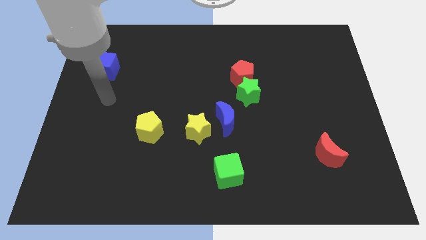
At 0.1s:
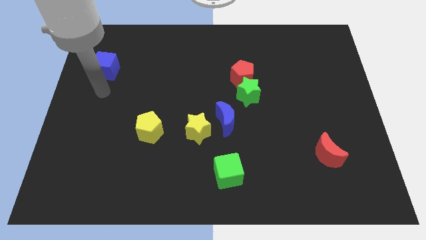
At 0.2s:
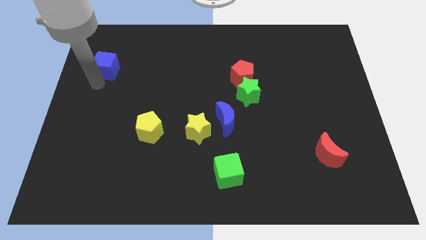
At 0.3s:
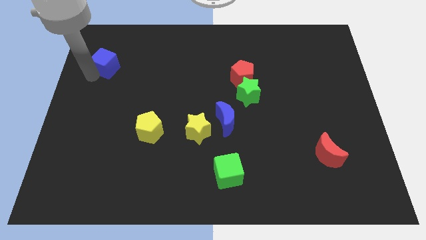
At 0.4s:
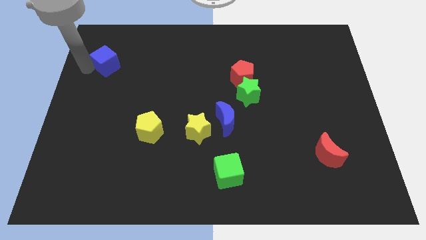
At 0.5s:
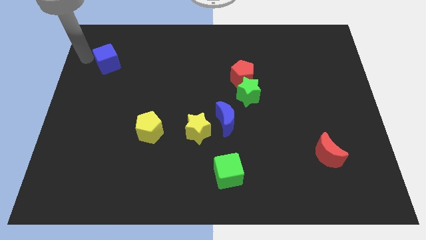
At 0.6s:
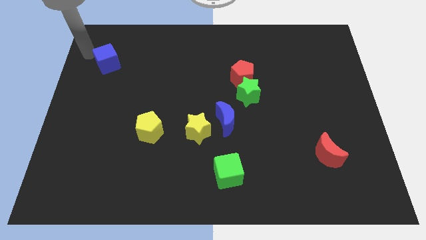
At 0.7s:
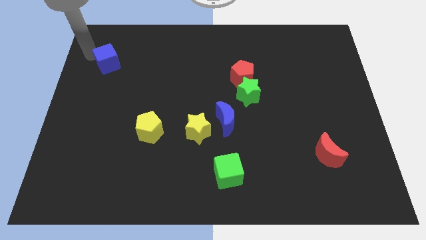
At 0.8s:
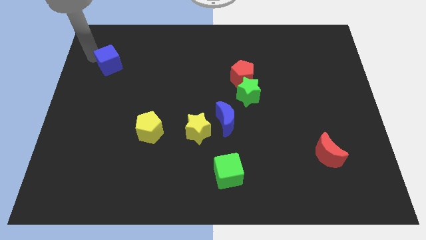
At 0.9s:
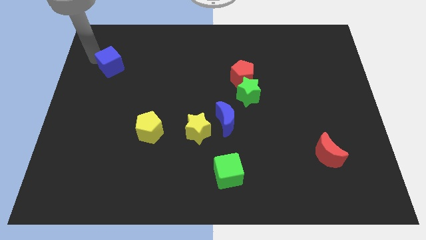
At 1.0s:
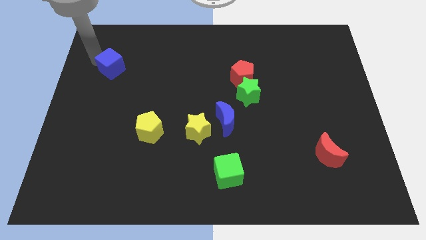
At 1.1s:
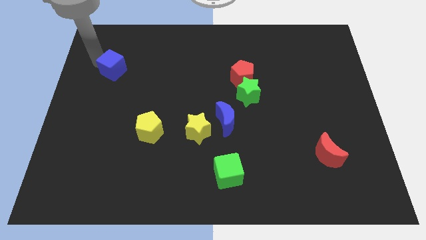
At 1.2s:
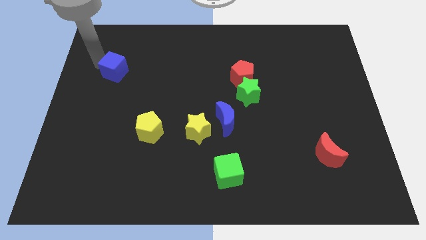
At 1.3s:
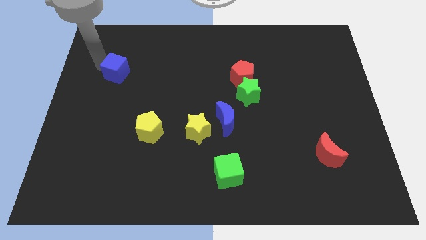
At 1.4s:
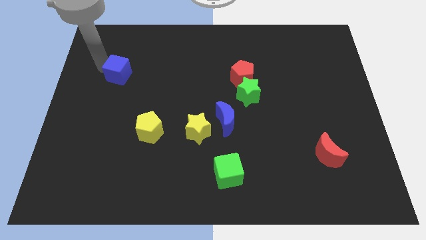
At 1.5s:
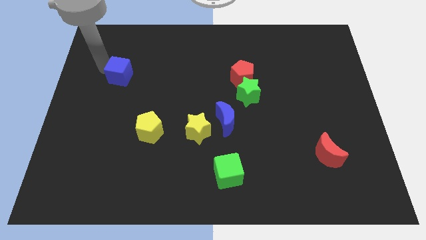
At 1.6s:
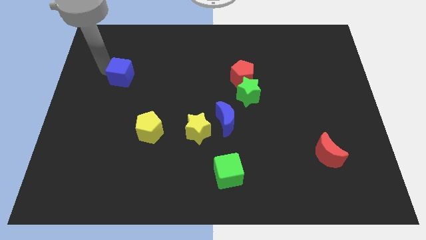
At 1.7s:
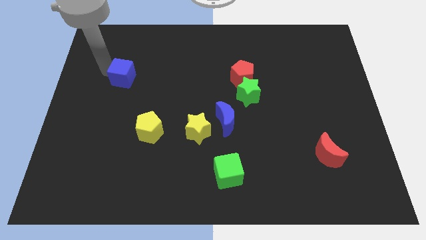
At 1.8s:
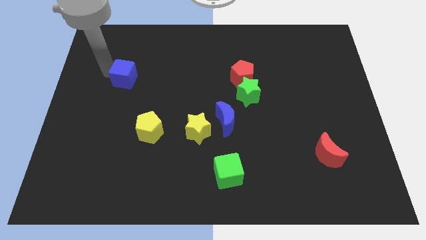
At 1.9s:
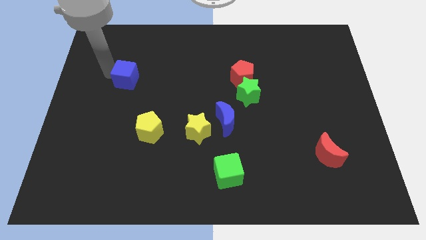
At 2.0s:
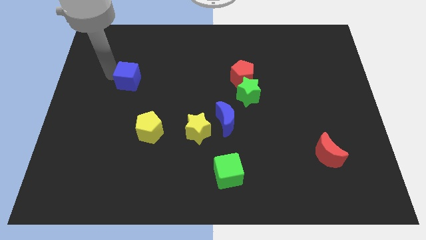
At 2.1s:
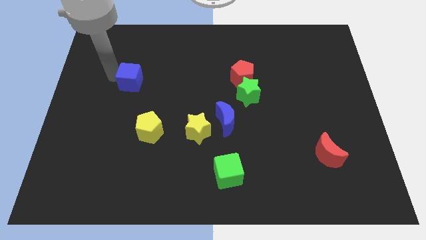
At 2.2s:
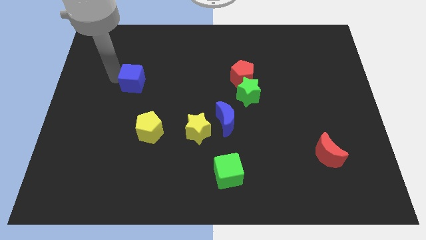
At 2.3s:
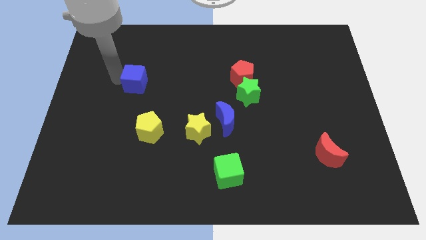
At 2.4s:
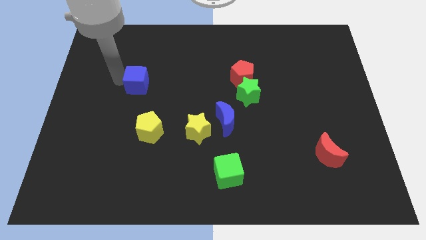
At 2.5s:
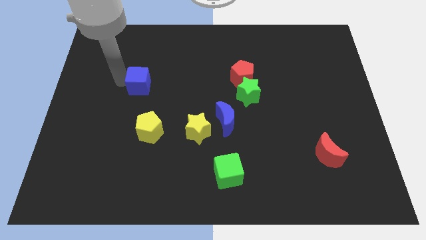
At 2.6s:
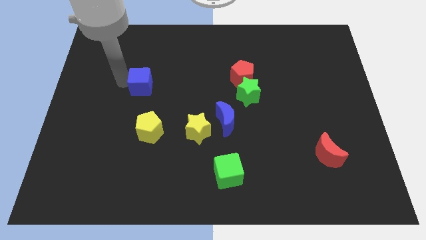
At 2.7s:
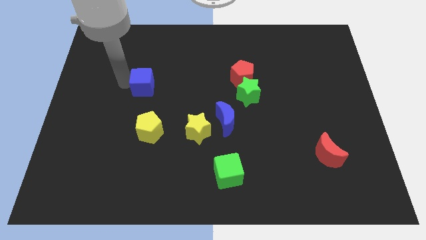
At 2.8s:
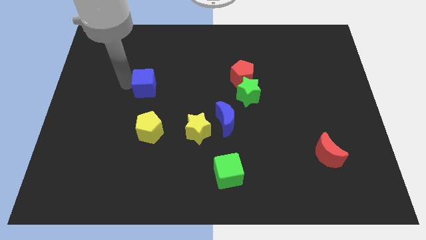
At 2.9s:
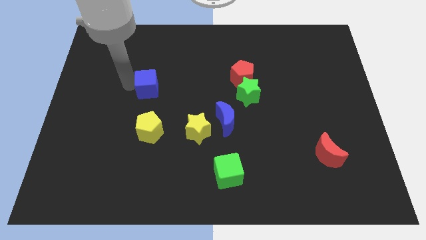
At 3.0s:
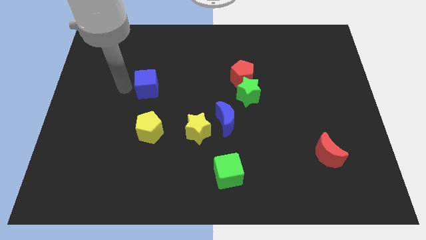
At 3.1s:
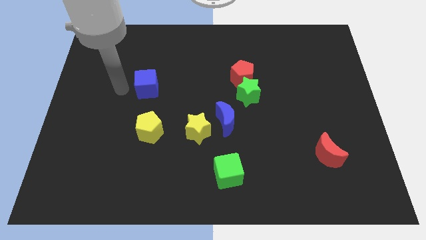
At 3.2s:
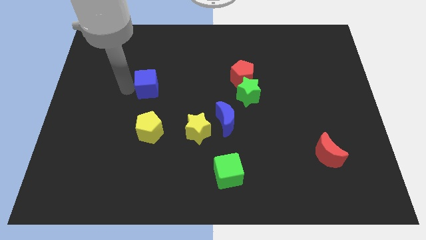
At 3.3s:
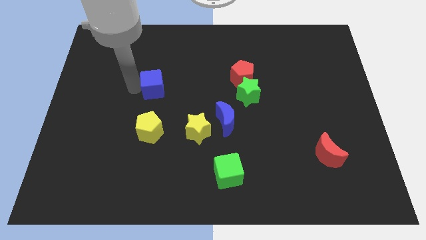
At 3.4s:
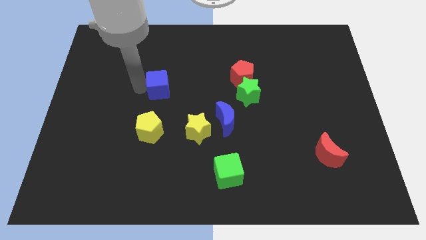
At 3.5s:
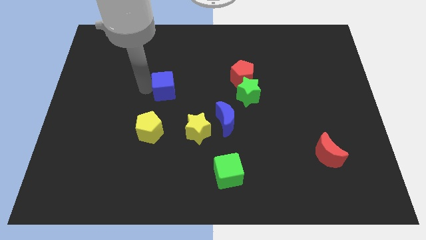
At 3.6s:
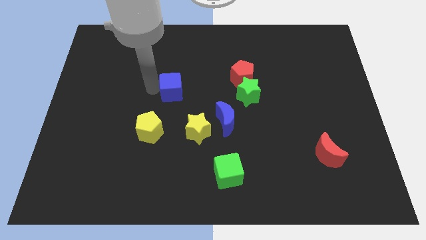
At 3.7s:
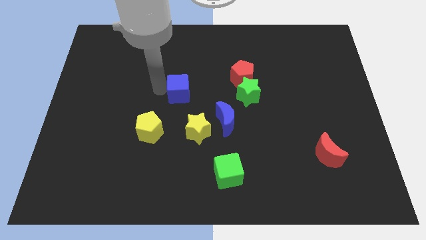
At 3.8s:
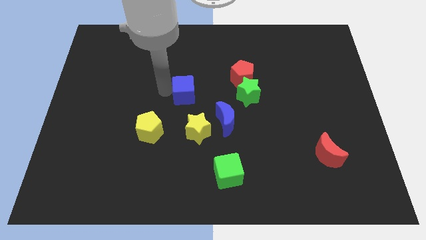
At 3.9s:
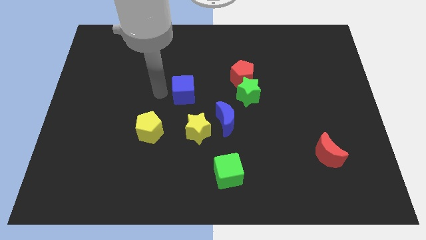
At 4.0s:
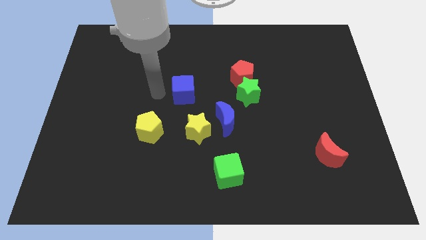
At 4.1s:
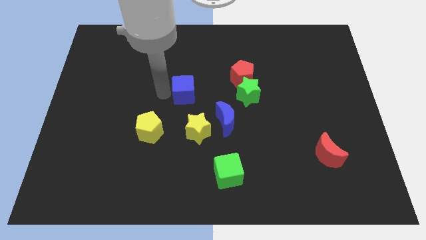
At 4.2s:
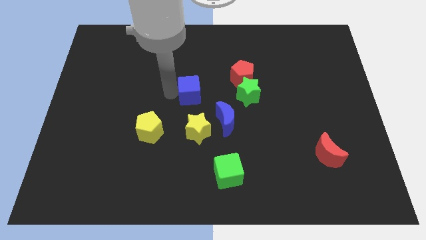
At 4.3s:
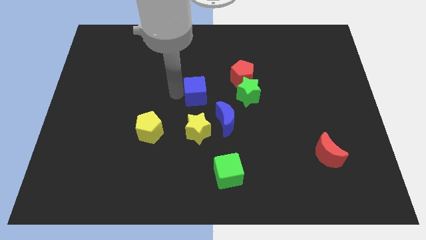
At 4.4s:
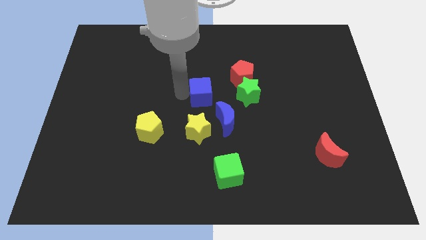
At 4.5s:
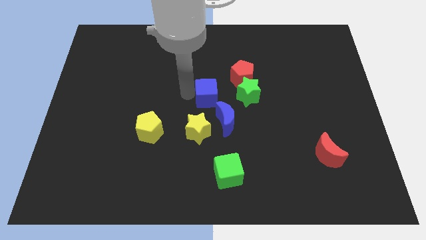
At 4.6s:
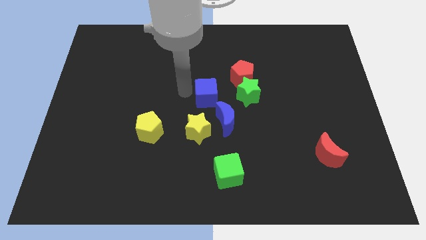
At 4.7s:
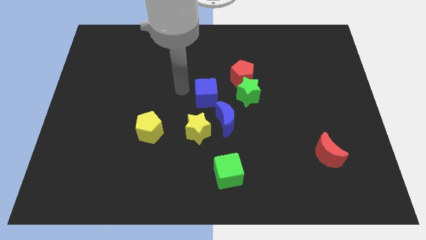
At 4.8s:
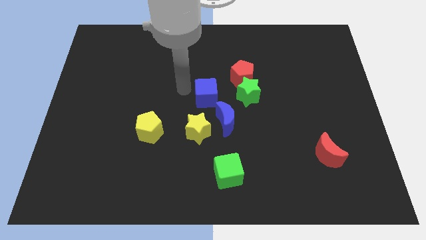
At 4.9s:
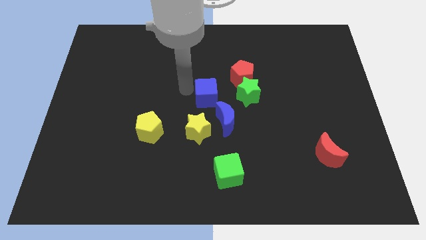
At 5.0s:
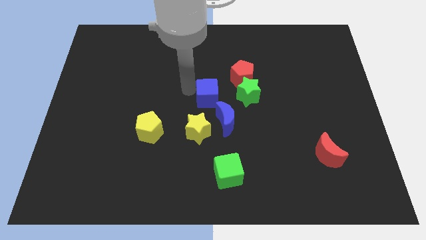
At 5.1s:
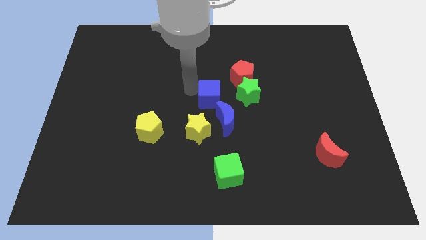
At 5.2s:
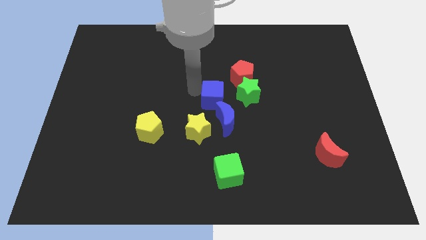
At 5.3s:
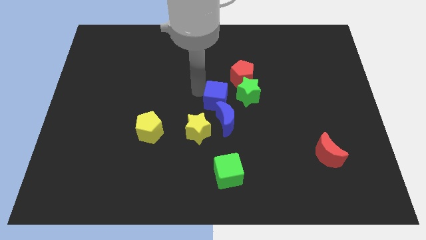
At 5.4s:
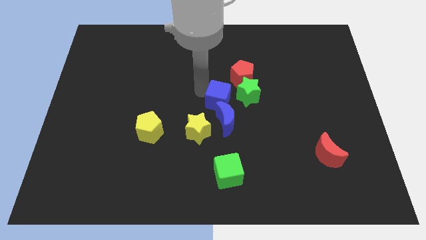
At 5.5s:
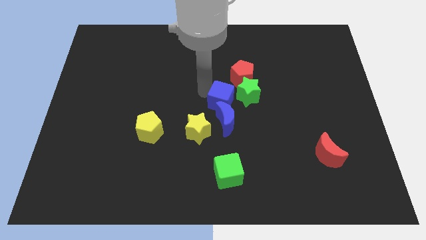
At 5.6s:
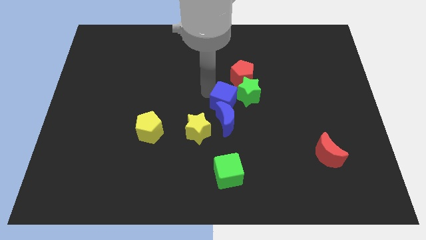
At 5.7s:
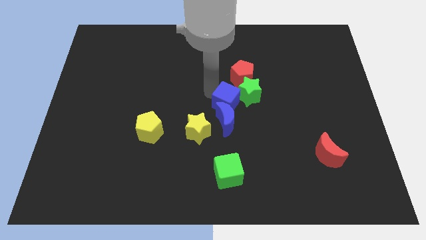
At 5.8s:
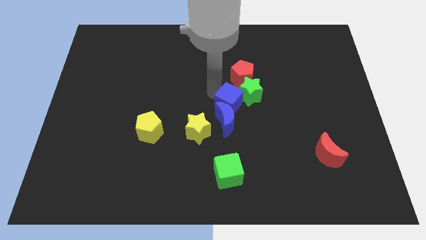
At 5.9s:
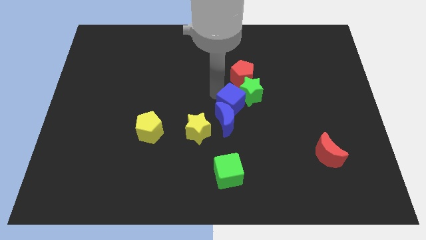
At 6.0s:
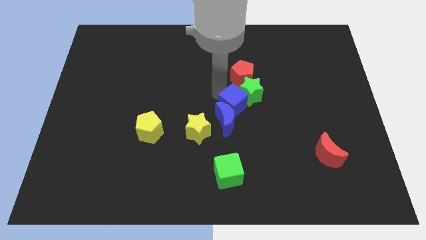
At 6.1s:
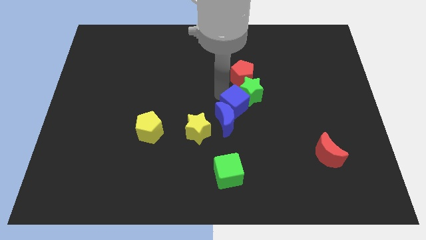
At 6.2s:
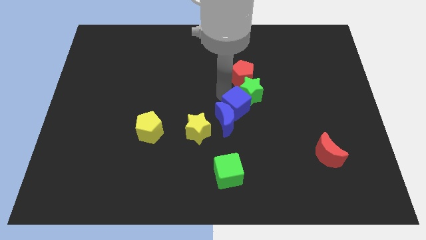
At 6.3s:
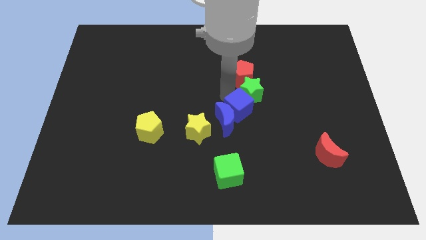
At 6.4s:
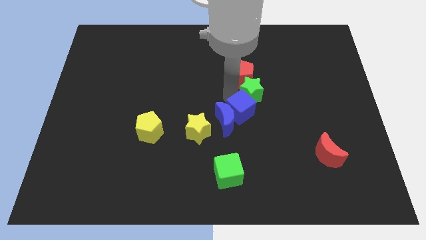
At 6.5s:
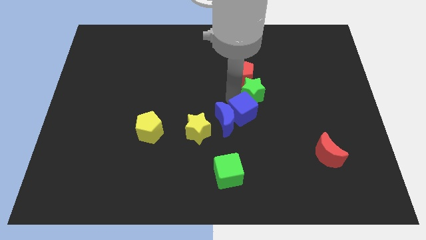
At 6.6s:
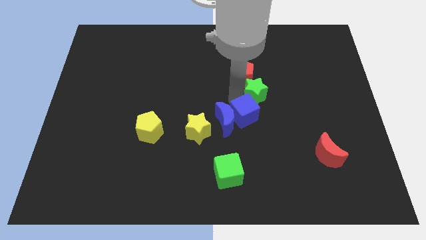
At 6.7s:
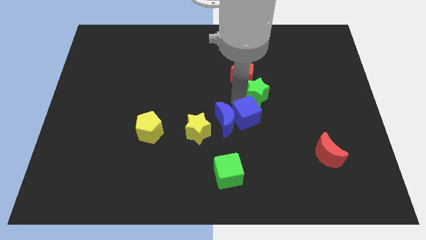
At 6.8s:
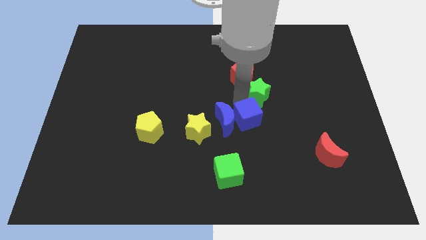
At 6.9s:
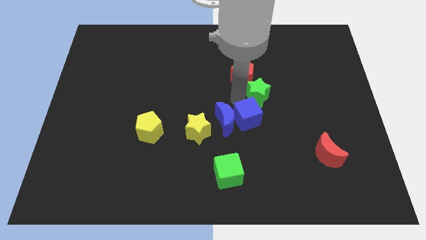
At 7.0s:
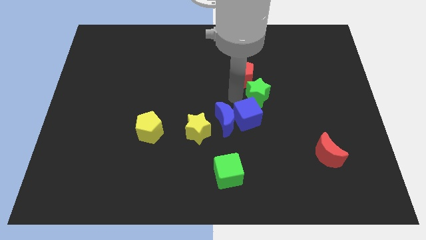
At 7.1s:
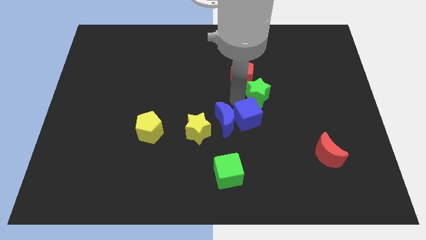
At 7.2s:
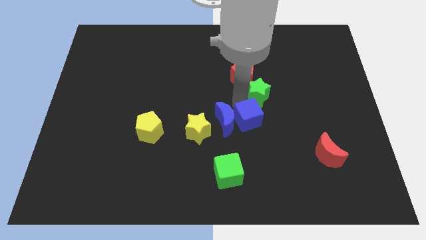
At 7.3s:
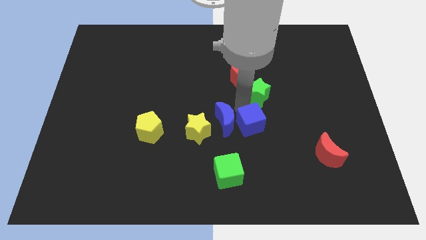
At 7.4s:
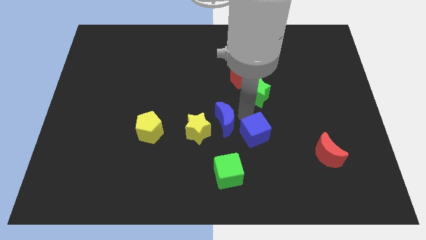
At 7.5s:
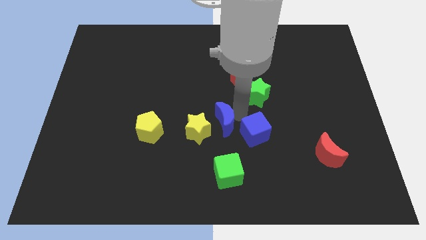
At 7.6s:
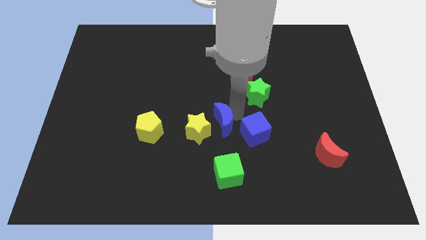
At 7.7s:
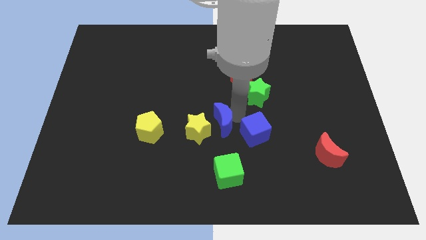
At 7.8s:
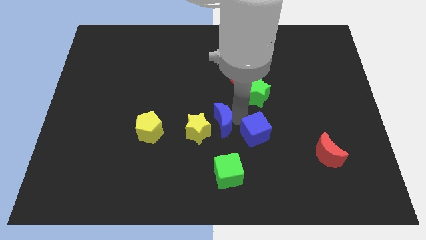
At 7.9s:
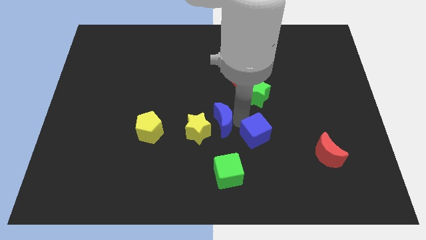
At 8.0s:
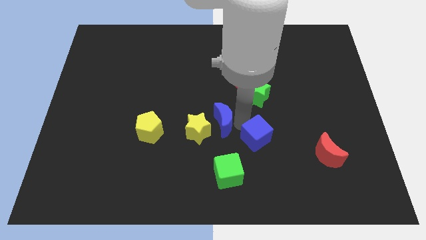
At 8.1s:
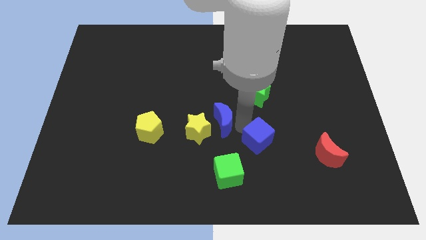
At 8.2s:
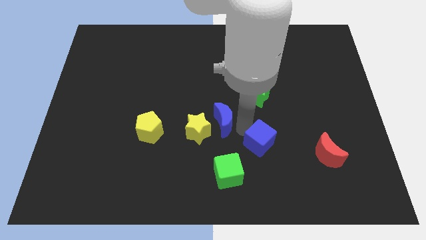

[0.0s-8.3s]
move the blue cube just left of the red moon
